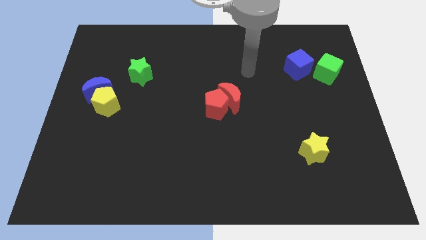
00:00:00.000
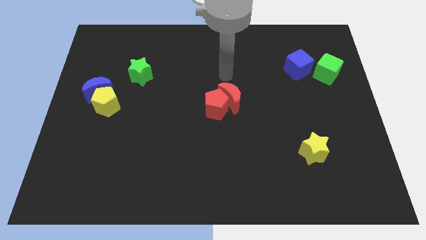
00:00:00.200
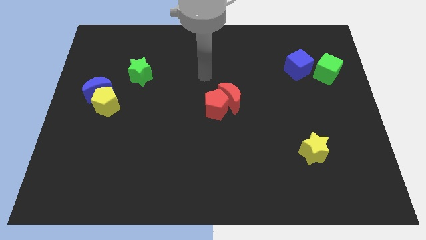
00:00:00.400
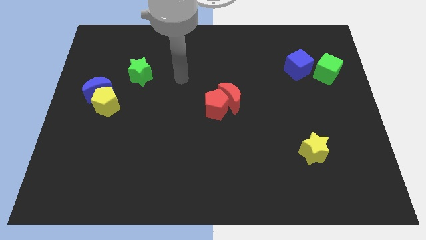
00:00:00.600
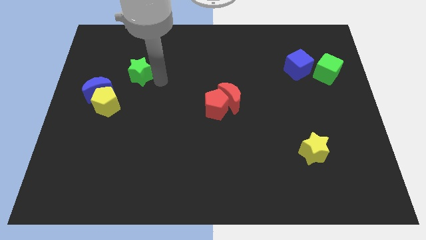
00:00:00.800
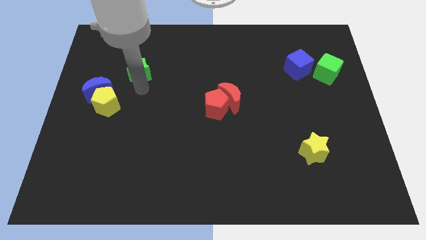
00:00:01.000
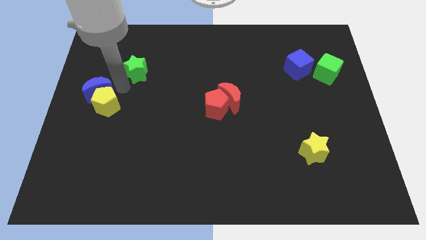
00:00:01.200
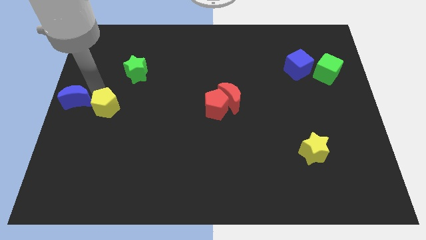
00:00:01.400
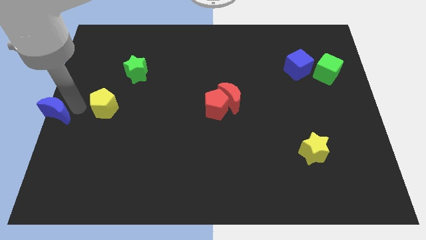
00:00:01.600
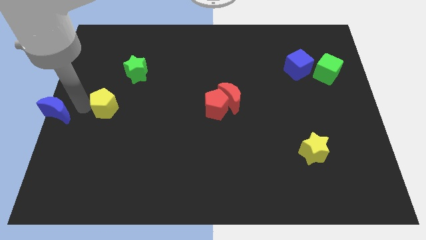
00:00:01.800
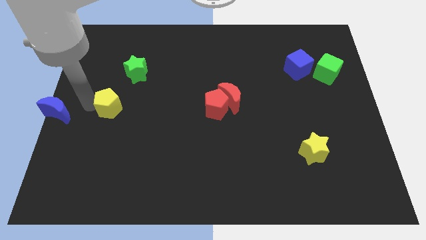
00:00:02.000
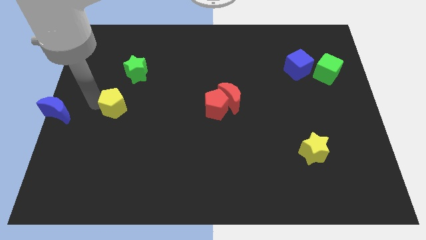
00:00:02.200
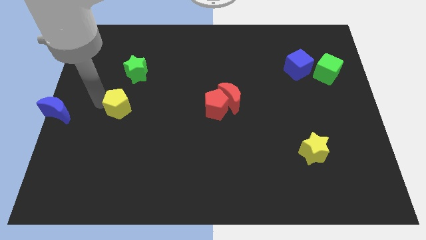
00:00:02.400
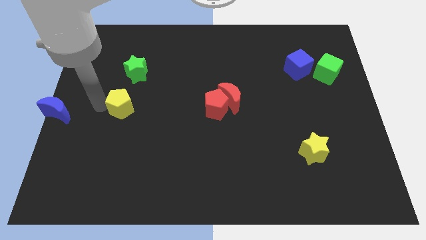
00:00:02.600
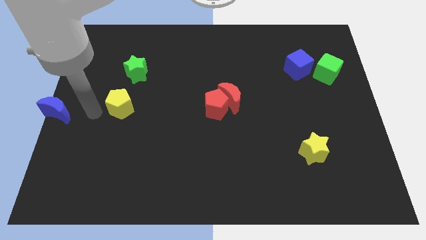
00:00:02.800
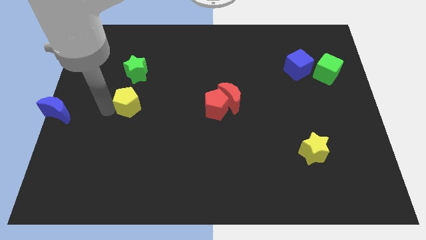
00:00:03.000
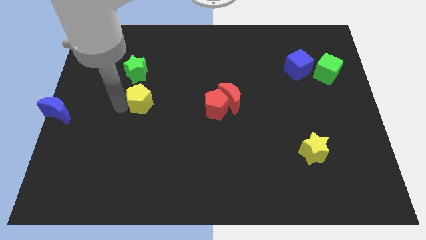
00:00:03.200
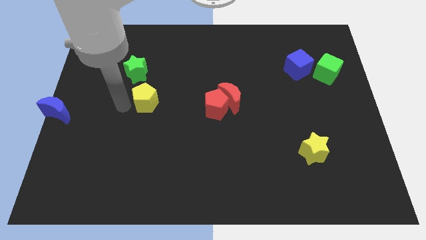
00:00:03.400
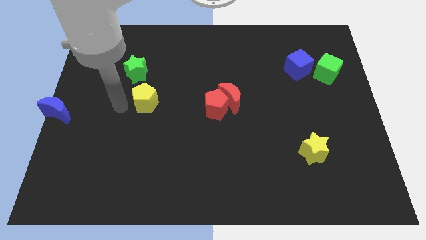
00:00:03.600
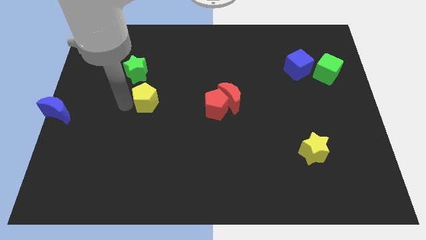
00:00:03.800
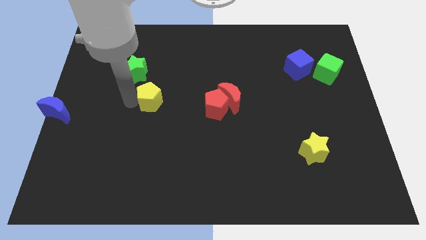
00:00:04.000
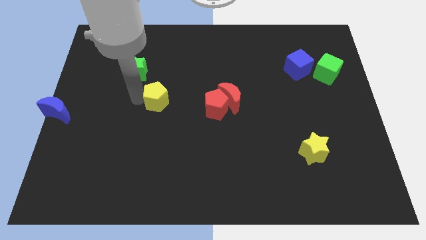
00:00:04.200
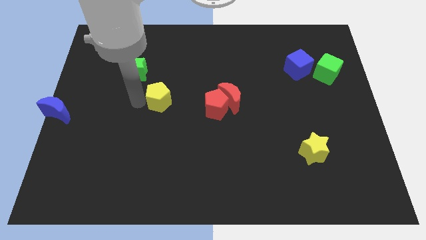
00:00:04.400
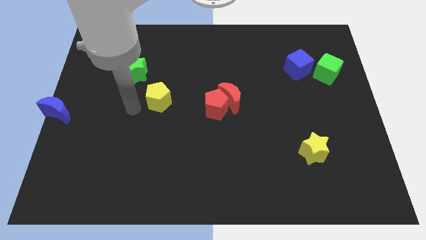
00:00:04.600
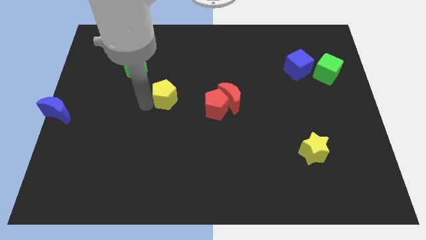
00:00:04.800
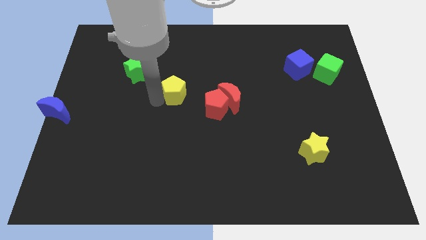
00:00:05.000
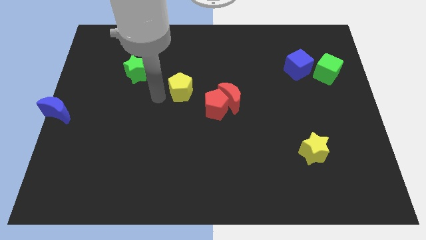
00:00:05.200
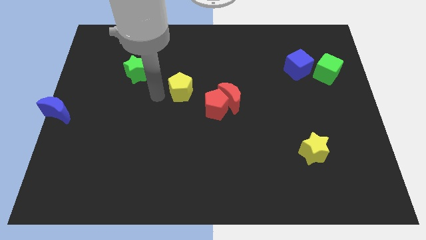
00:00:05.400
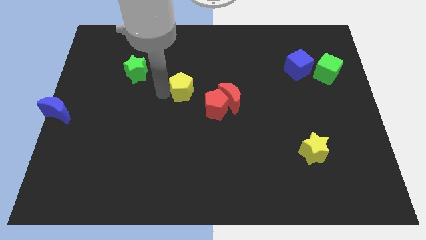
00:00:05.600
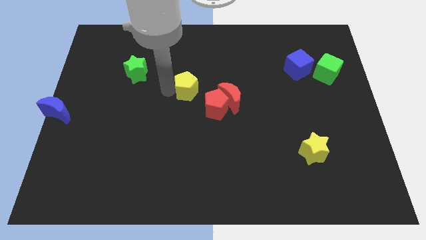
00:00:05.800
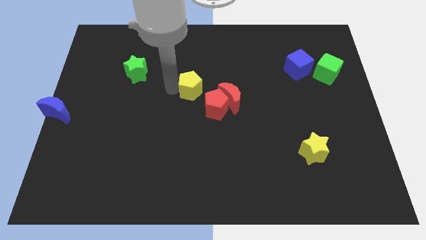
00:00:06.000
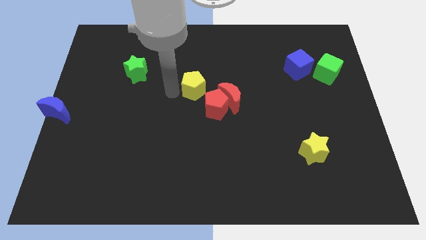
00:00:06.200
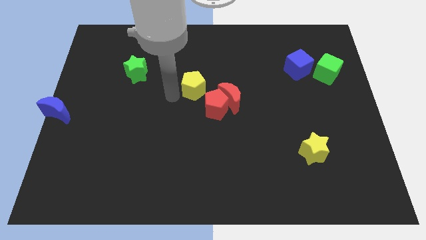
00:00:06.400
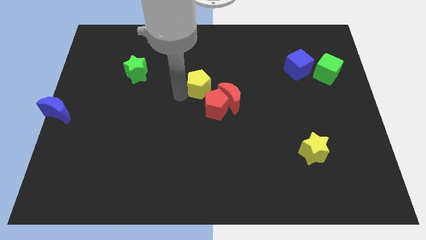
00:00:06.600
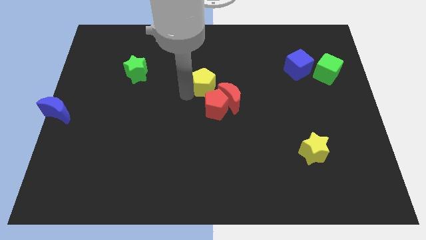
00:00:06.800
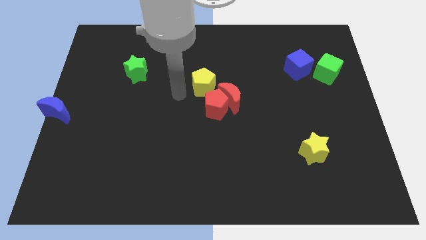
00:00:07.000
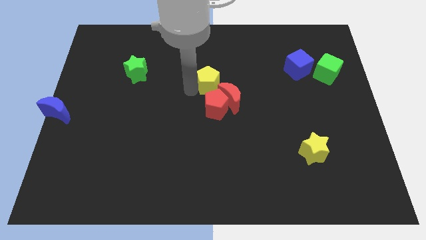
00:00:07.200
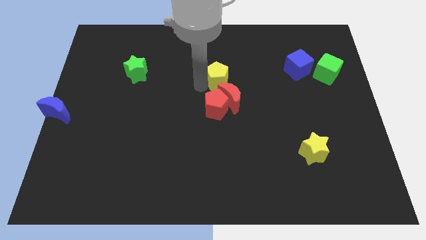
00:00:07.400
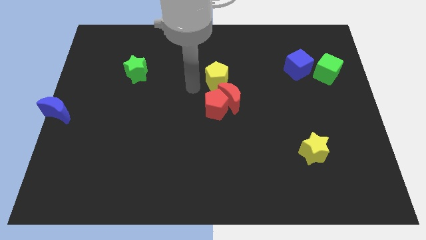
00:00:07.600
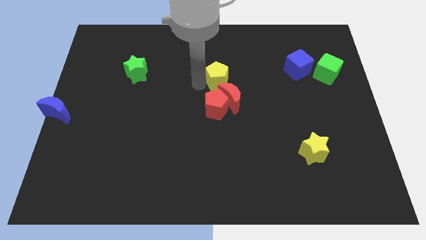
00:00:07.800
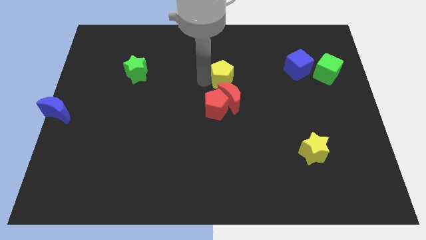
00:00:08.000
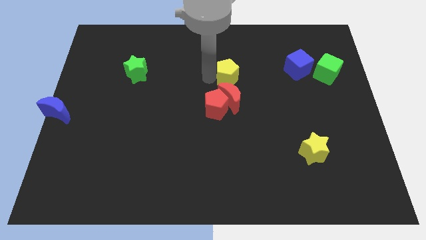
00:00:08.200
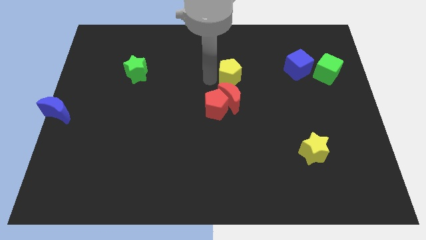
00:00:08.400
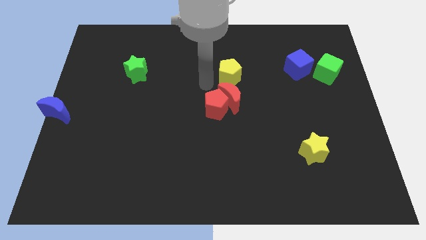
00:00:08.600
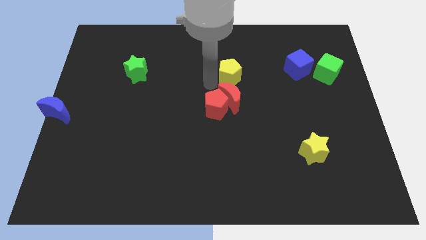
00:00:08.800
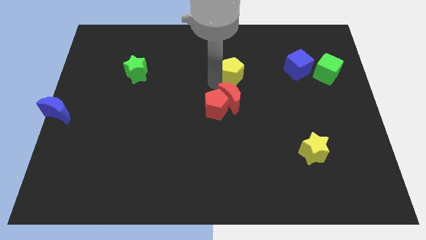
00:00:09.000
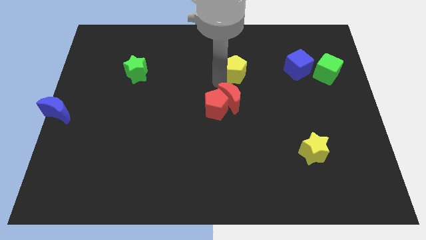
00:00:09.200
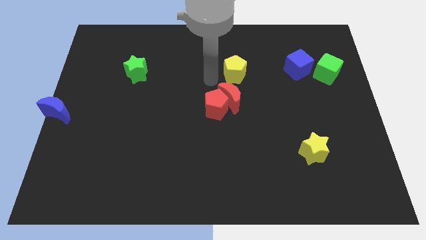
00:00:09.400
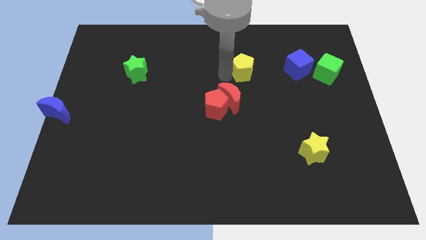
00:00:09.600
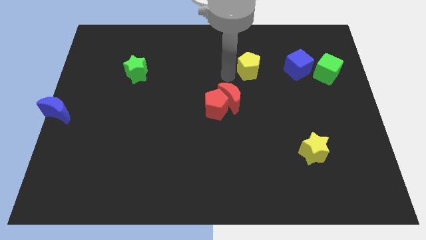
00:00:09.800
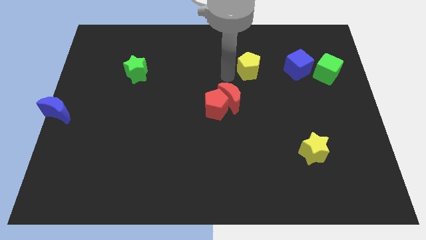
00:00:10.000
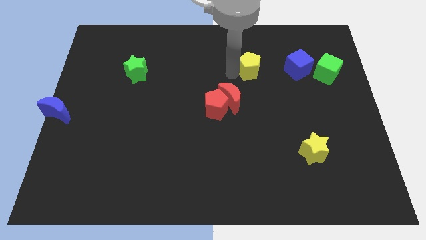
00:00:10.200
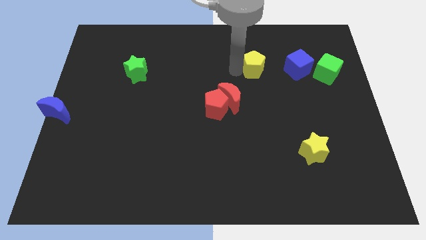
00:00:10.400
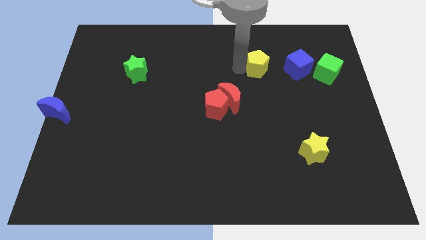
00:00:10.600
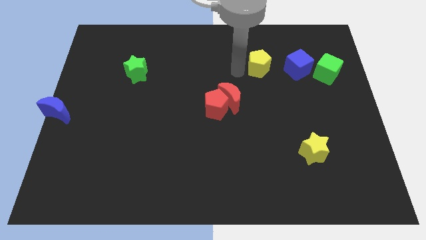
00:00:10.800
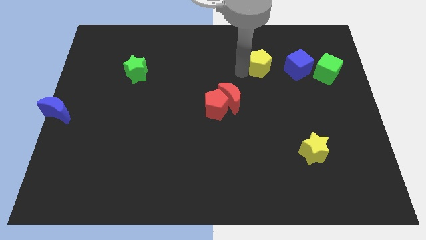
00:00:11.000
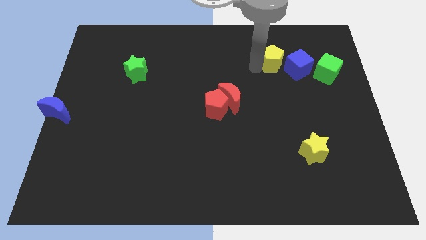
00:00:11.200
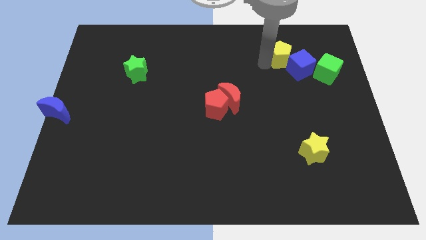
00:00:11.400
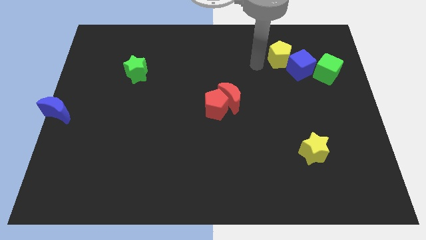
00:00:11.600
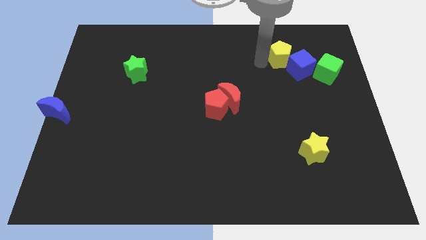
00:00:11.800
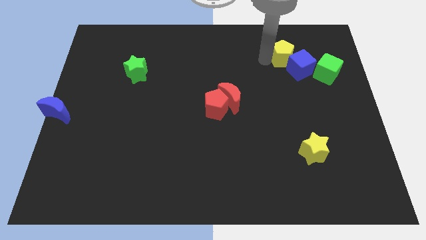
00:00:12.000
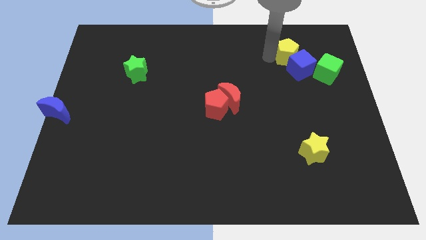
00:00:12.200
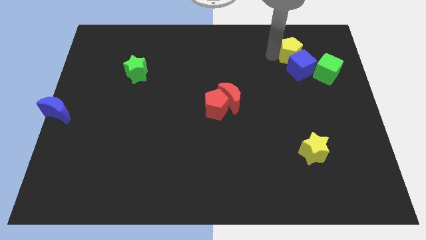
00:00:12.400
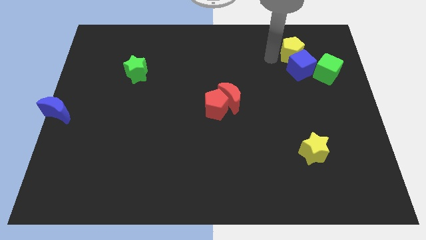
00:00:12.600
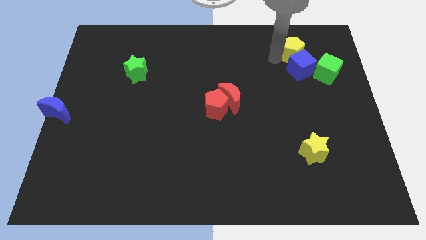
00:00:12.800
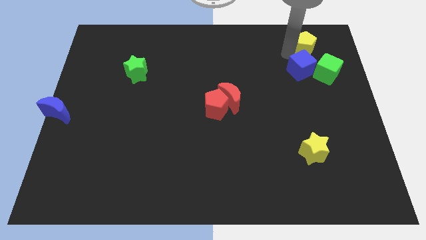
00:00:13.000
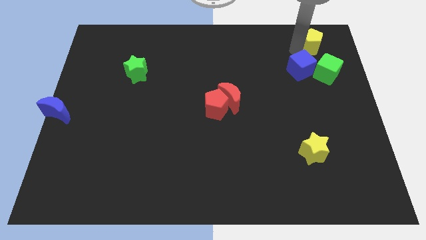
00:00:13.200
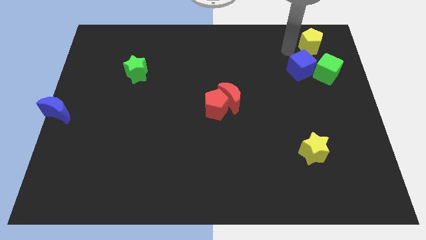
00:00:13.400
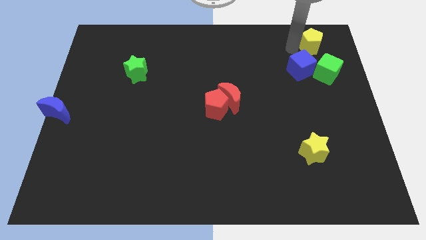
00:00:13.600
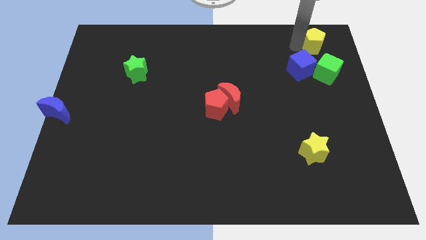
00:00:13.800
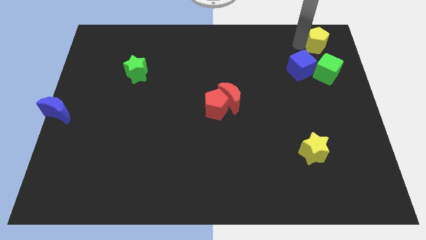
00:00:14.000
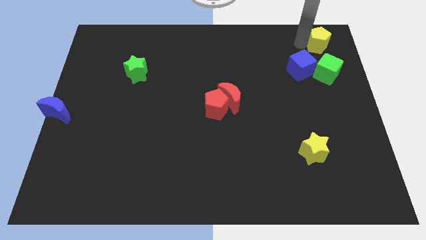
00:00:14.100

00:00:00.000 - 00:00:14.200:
slide the yellow pentagon to the top right corner

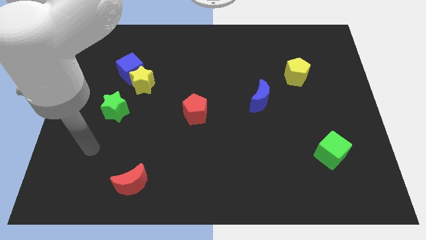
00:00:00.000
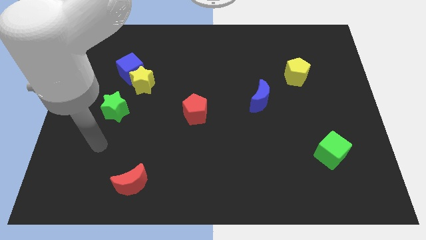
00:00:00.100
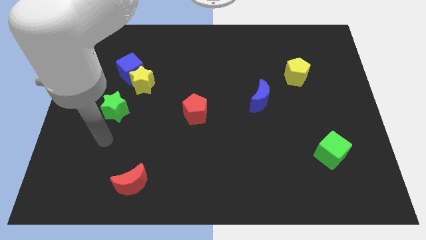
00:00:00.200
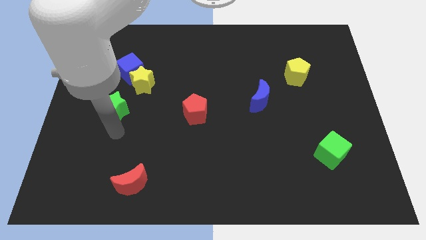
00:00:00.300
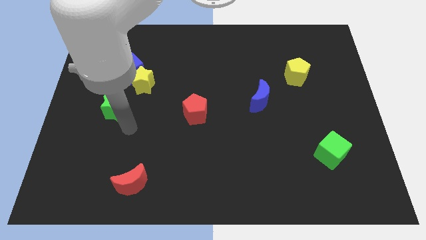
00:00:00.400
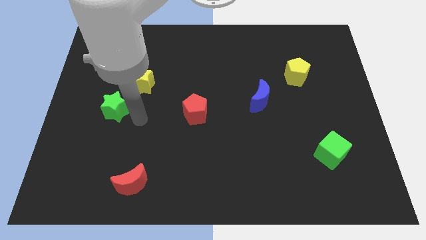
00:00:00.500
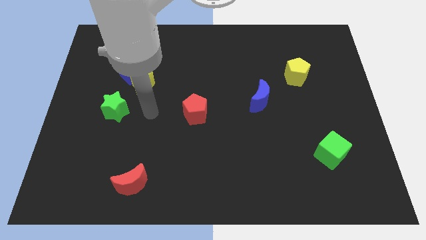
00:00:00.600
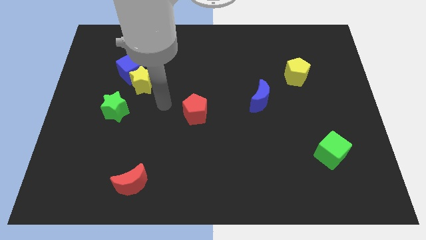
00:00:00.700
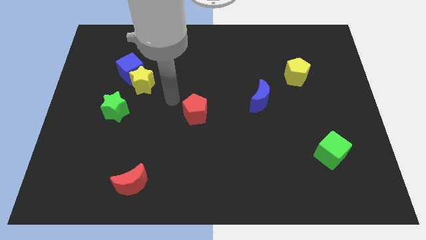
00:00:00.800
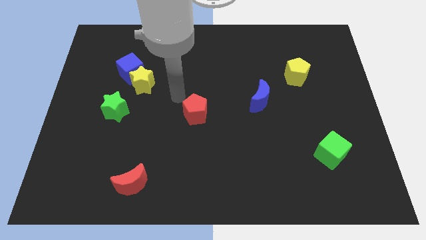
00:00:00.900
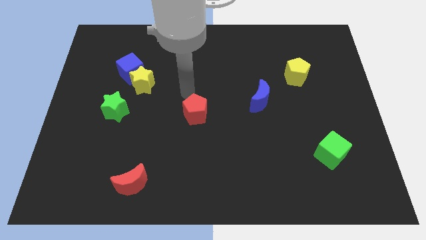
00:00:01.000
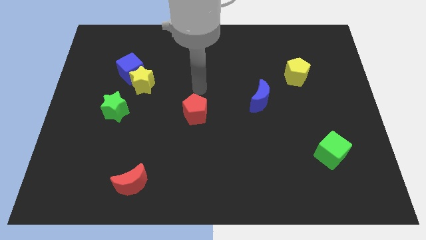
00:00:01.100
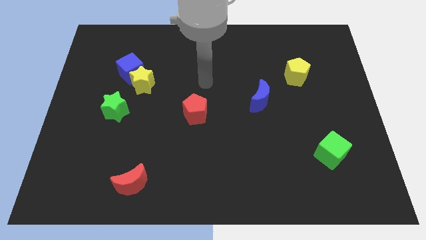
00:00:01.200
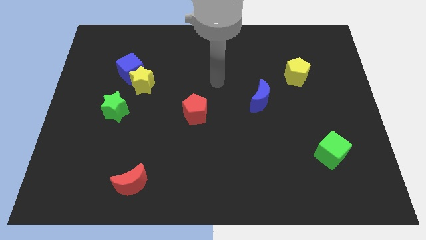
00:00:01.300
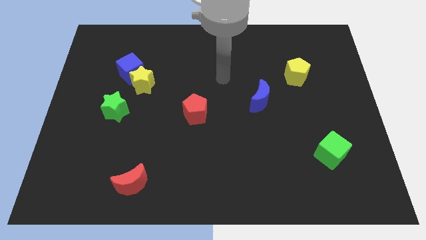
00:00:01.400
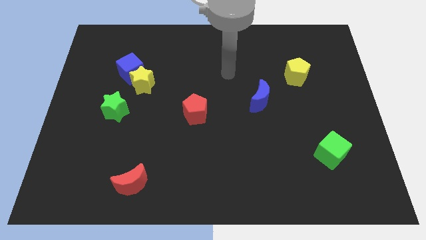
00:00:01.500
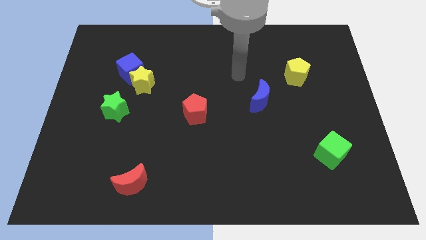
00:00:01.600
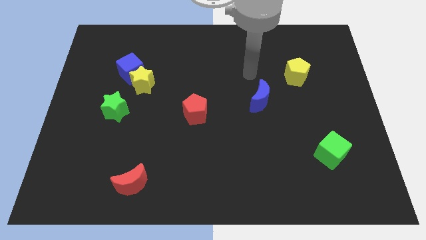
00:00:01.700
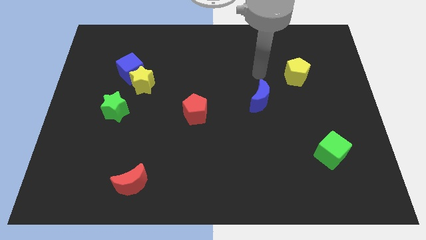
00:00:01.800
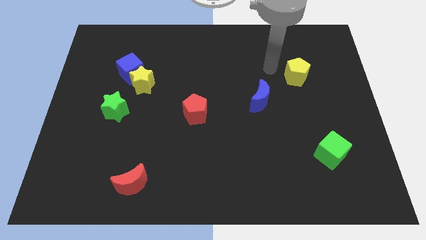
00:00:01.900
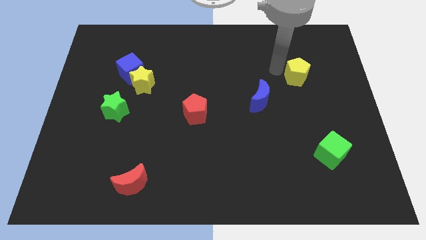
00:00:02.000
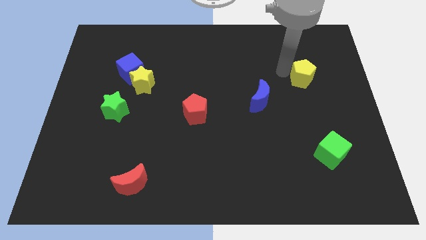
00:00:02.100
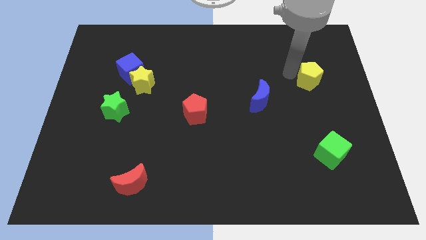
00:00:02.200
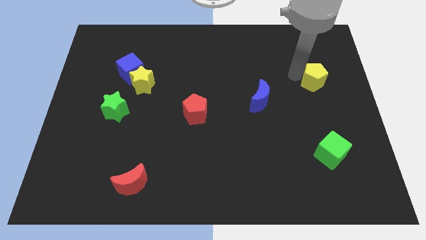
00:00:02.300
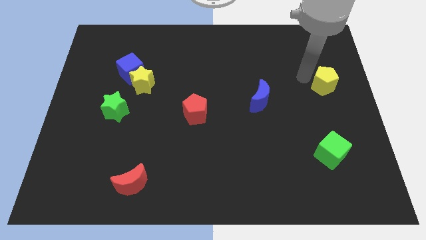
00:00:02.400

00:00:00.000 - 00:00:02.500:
move the yellow pentagon to the center right
